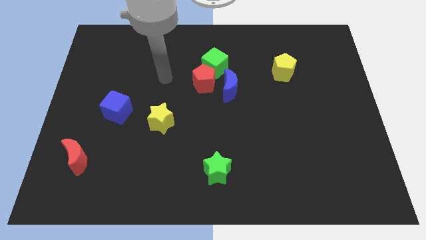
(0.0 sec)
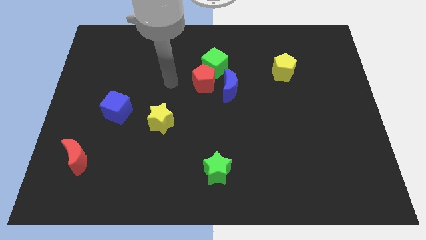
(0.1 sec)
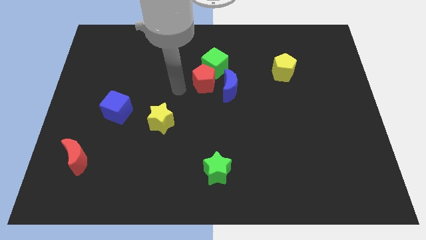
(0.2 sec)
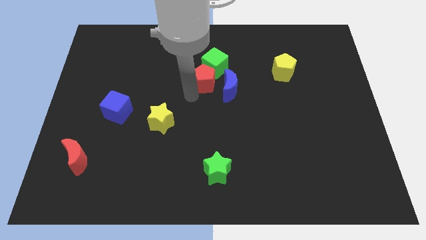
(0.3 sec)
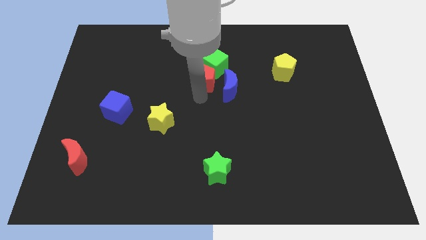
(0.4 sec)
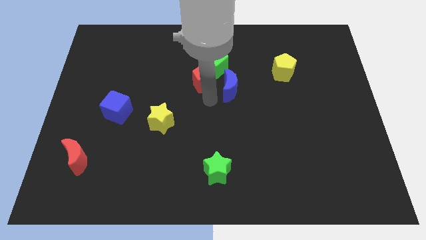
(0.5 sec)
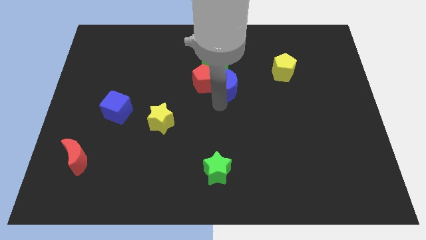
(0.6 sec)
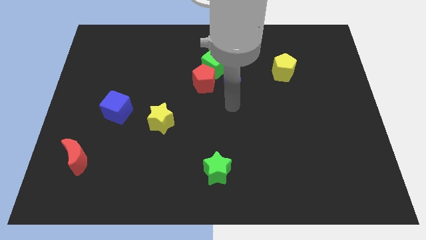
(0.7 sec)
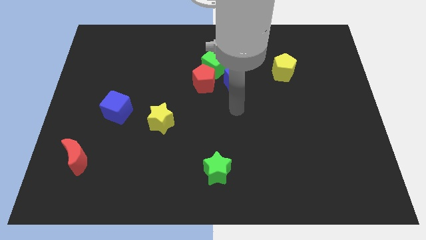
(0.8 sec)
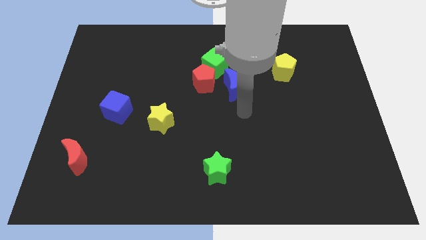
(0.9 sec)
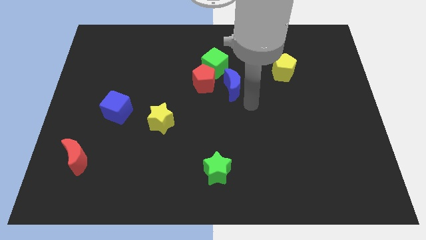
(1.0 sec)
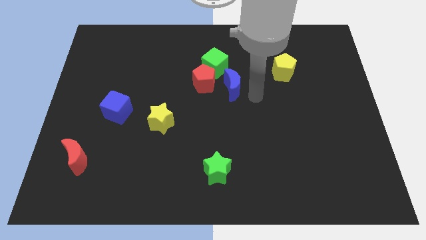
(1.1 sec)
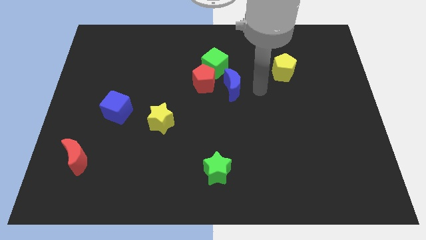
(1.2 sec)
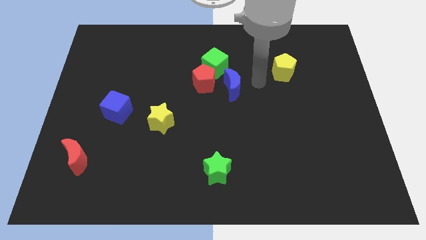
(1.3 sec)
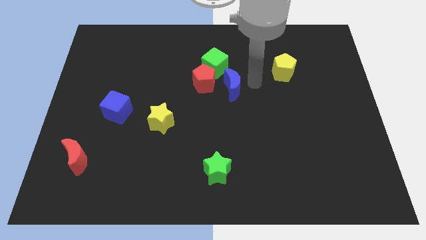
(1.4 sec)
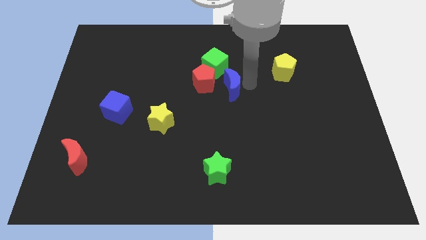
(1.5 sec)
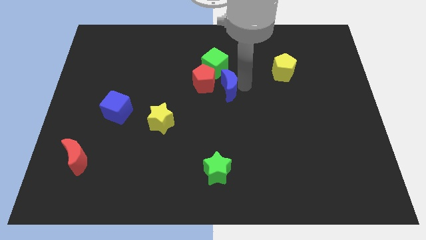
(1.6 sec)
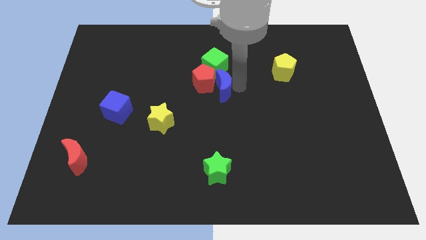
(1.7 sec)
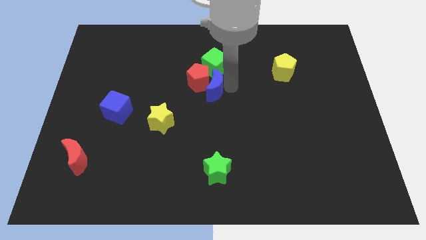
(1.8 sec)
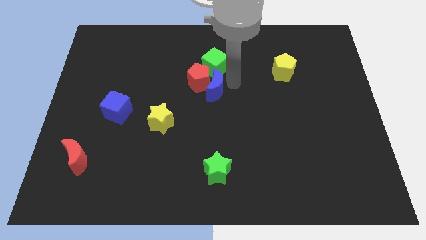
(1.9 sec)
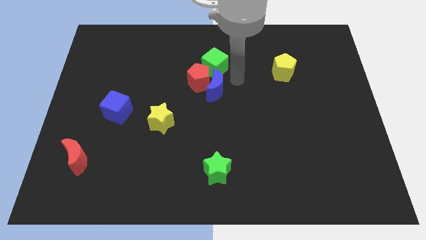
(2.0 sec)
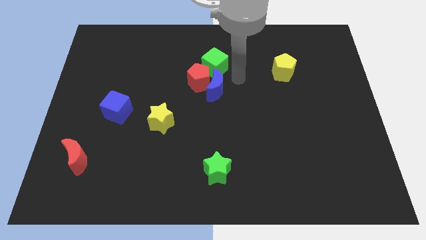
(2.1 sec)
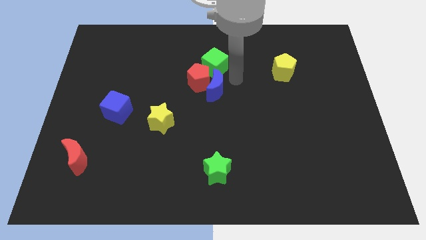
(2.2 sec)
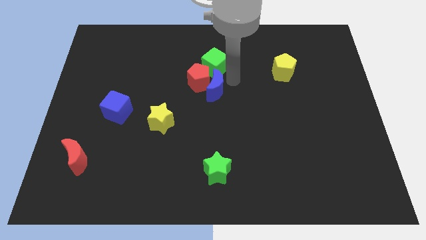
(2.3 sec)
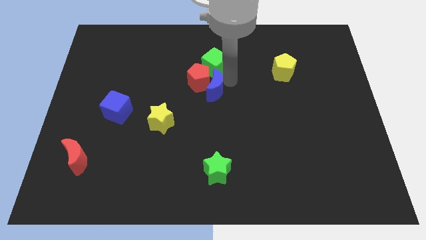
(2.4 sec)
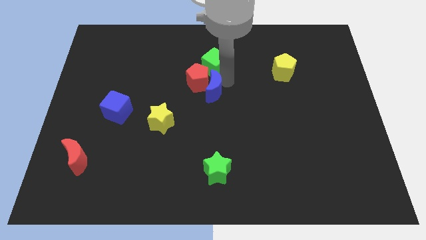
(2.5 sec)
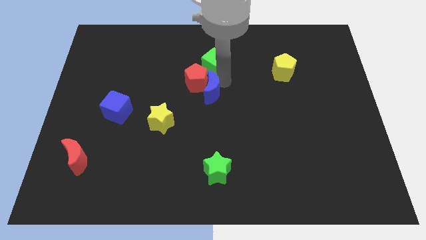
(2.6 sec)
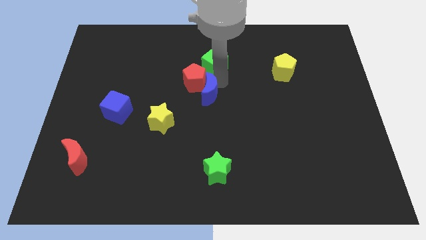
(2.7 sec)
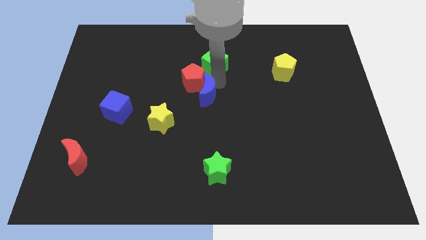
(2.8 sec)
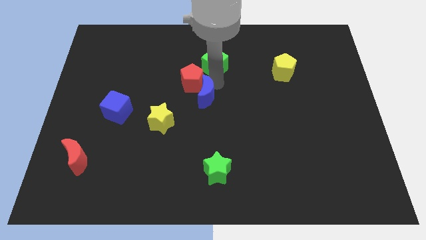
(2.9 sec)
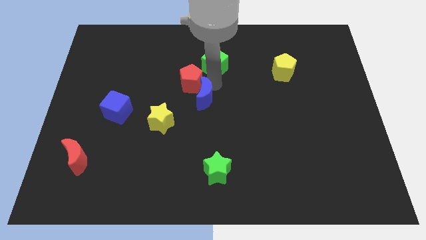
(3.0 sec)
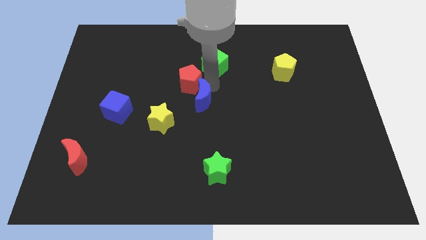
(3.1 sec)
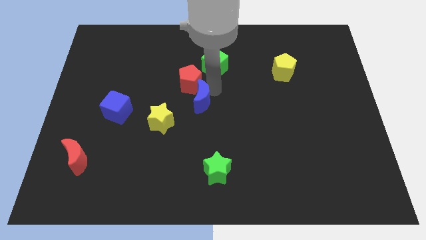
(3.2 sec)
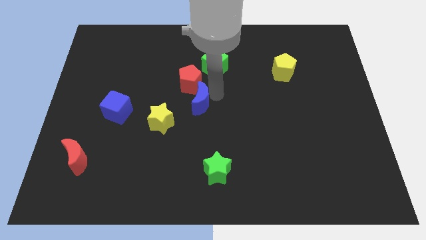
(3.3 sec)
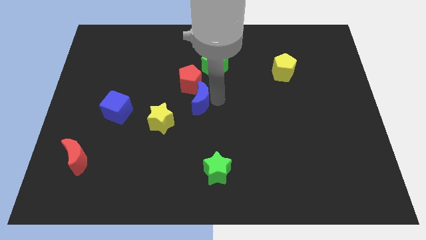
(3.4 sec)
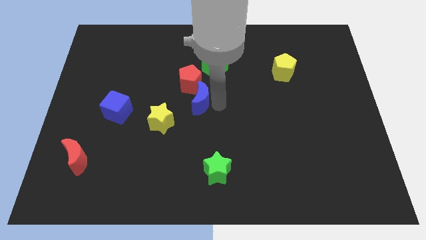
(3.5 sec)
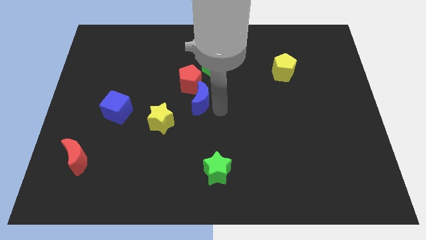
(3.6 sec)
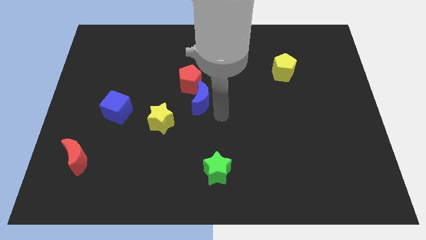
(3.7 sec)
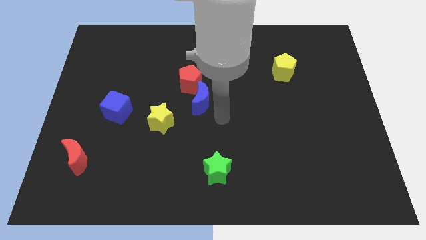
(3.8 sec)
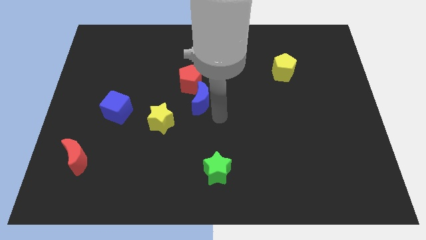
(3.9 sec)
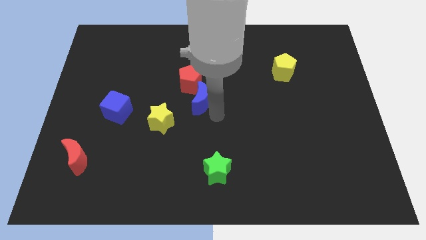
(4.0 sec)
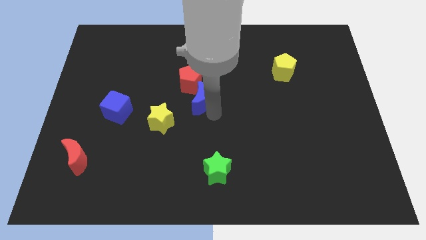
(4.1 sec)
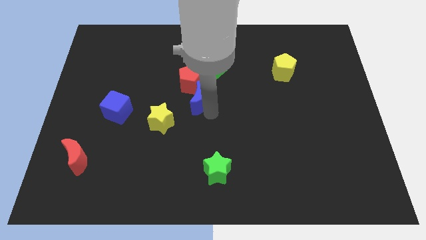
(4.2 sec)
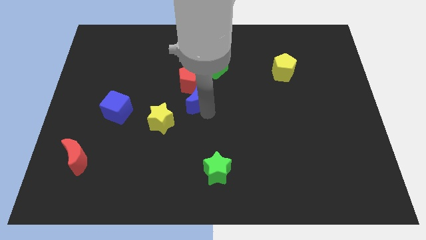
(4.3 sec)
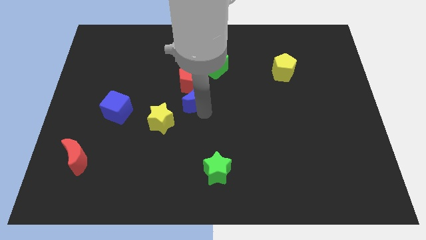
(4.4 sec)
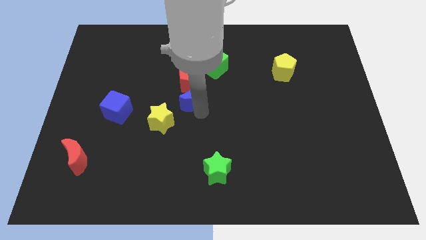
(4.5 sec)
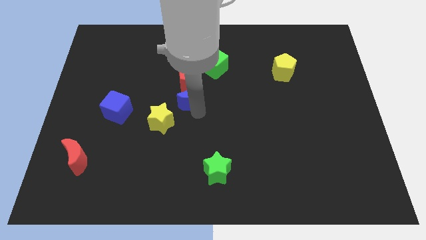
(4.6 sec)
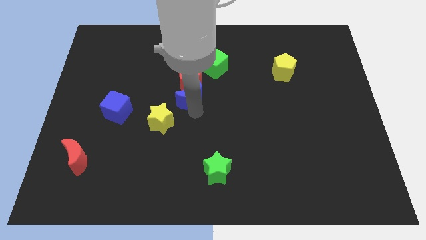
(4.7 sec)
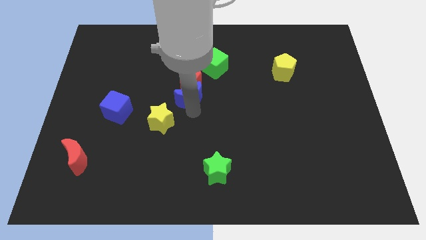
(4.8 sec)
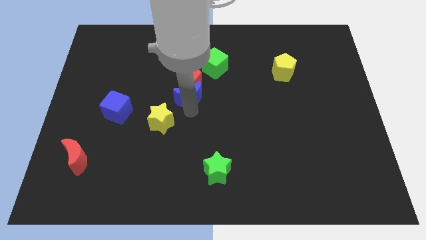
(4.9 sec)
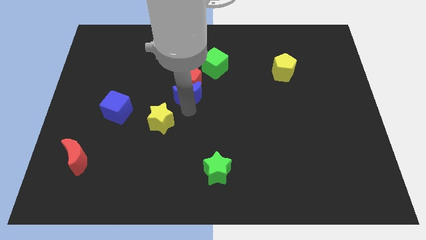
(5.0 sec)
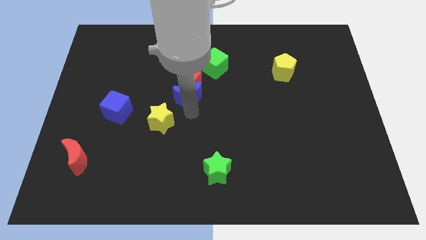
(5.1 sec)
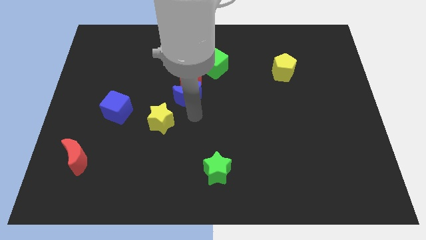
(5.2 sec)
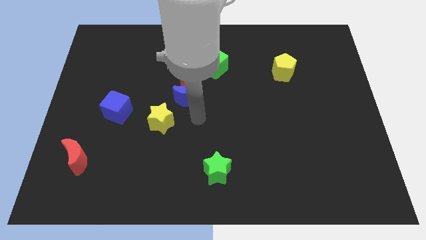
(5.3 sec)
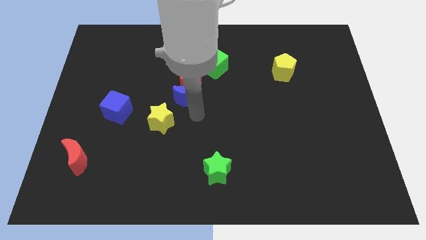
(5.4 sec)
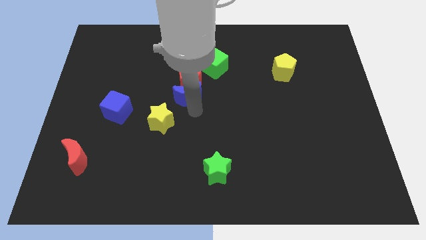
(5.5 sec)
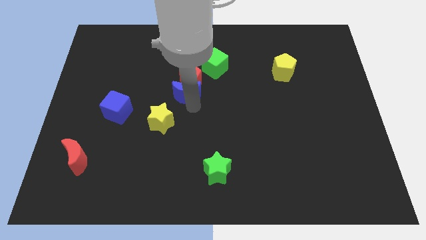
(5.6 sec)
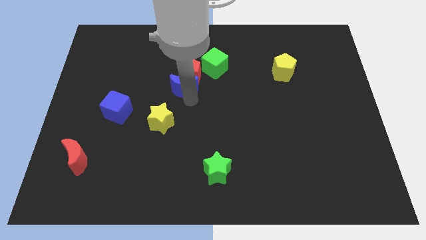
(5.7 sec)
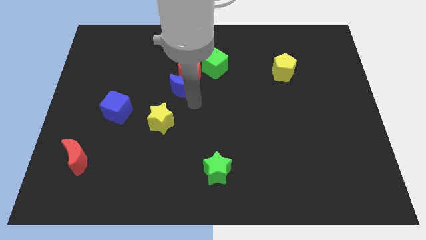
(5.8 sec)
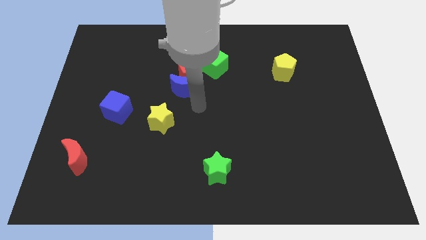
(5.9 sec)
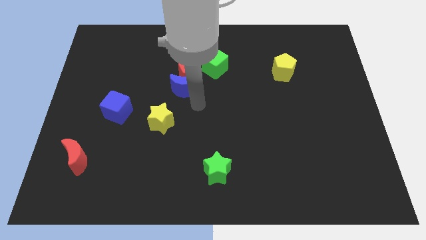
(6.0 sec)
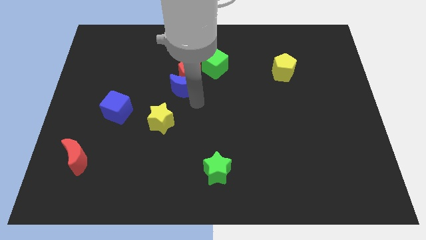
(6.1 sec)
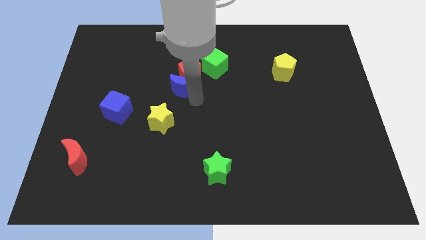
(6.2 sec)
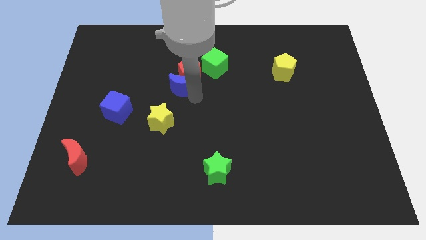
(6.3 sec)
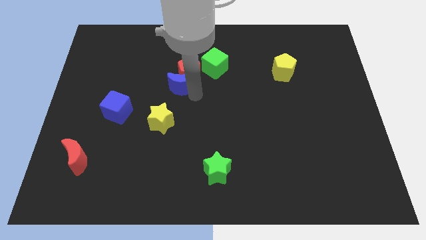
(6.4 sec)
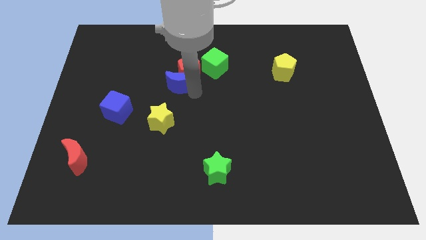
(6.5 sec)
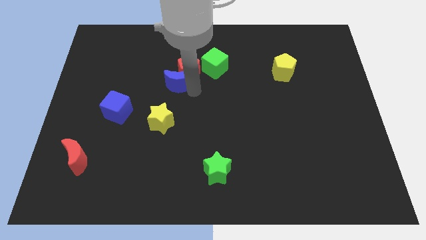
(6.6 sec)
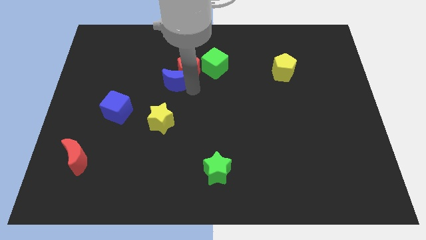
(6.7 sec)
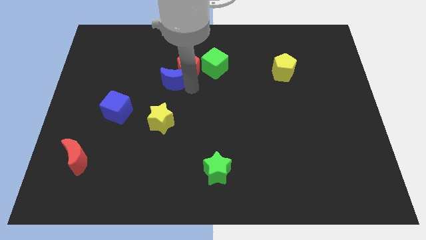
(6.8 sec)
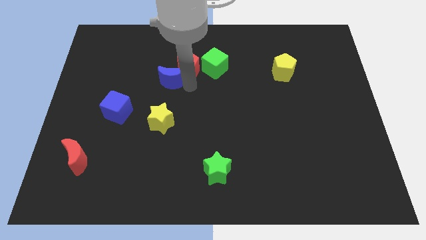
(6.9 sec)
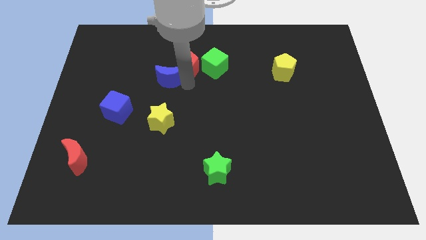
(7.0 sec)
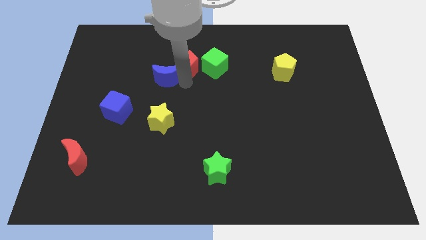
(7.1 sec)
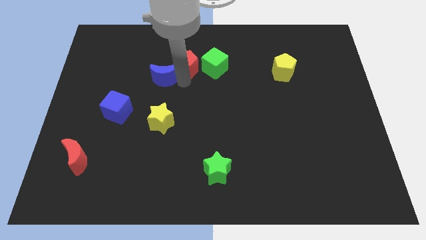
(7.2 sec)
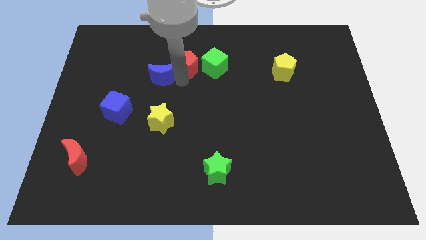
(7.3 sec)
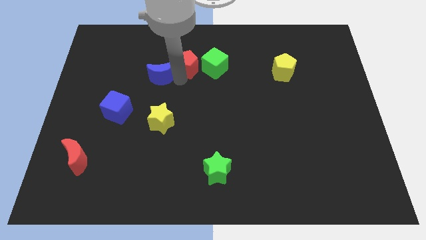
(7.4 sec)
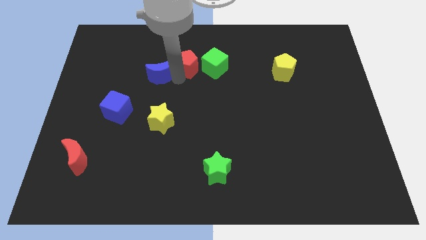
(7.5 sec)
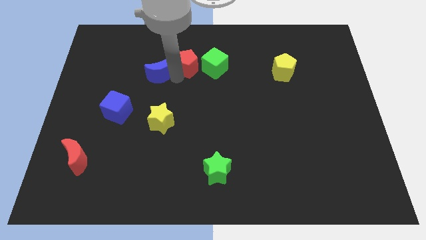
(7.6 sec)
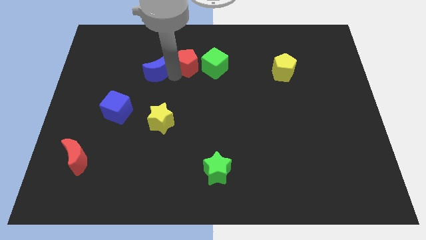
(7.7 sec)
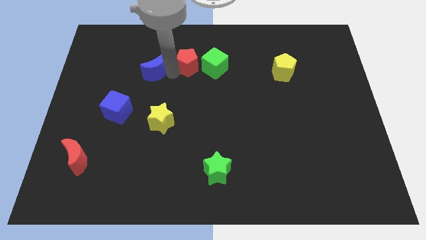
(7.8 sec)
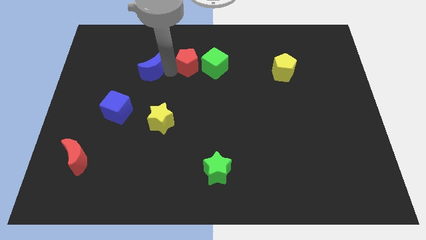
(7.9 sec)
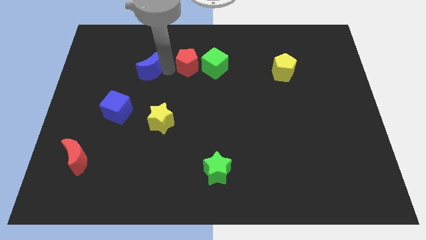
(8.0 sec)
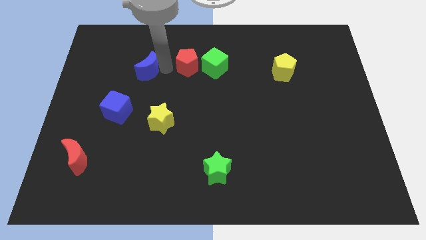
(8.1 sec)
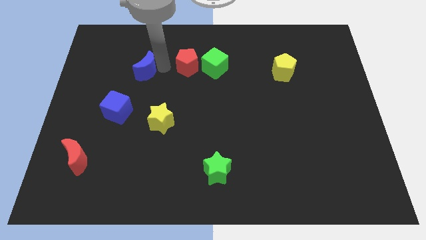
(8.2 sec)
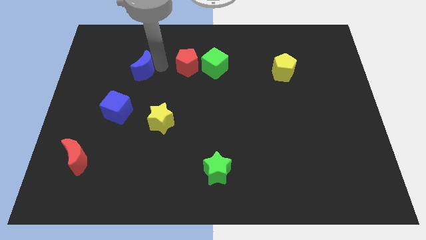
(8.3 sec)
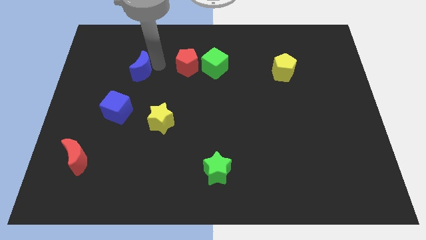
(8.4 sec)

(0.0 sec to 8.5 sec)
push the blue moon above the blue cube
